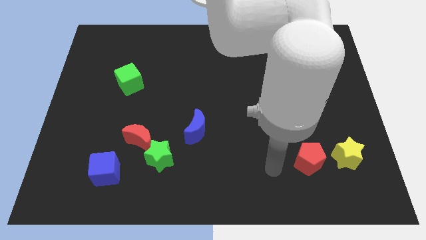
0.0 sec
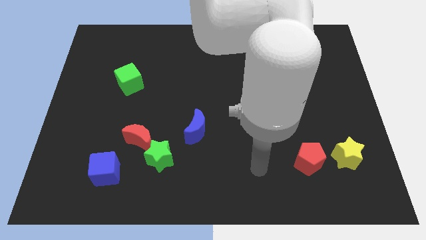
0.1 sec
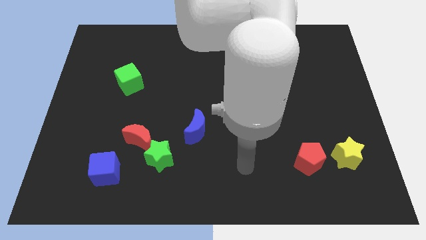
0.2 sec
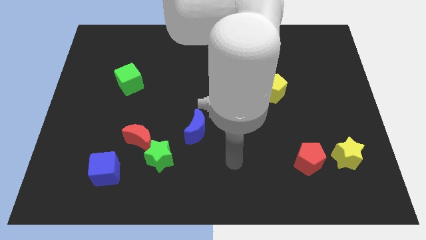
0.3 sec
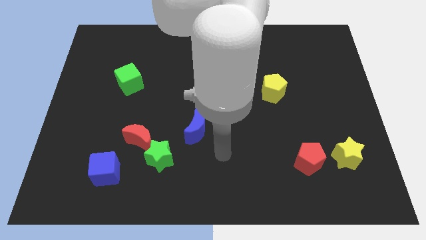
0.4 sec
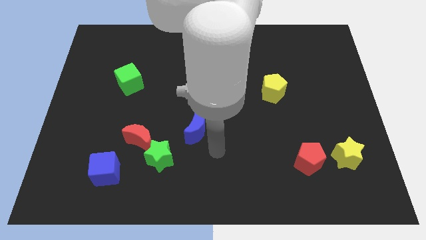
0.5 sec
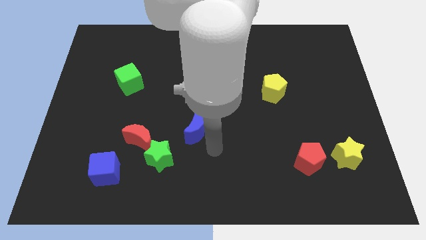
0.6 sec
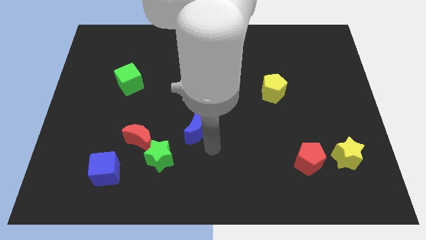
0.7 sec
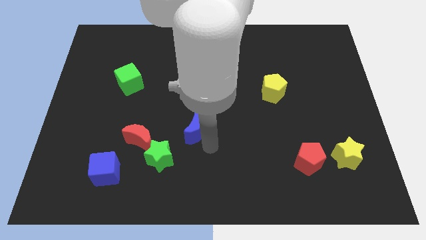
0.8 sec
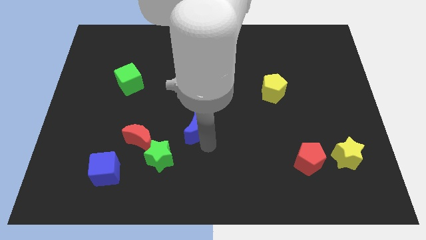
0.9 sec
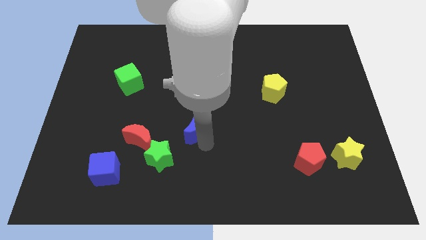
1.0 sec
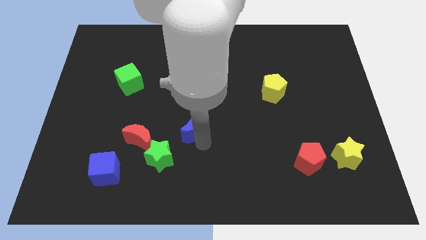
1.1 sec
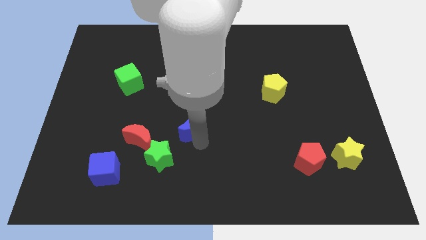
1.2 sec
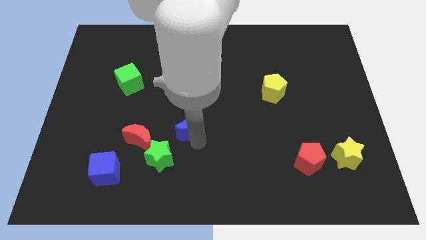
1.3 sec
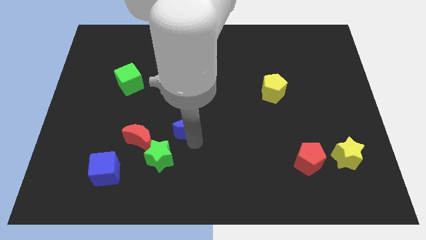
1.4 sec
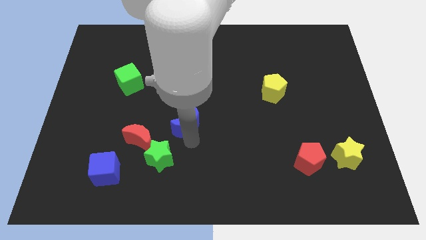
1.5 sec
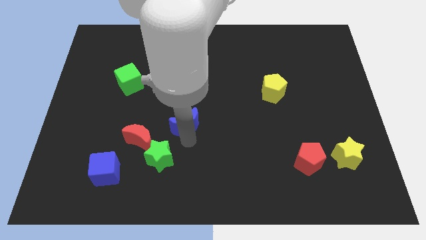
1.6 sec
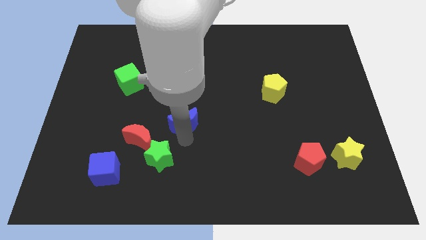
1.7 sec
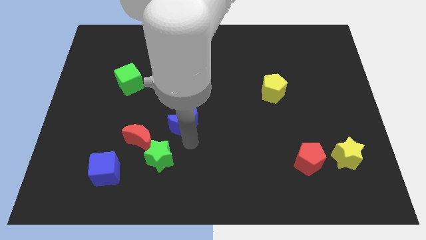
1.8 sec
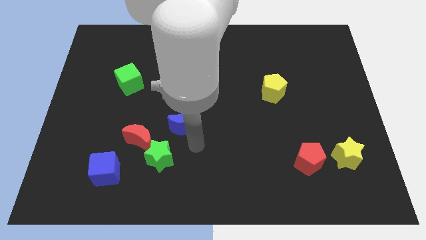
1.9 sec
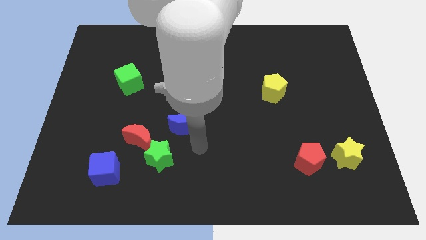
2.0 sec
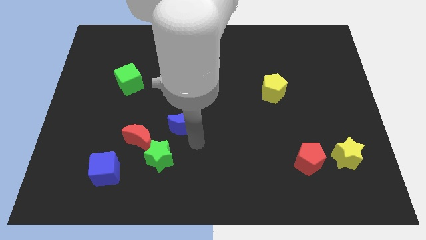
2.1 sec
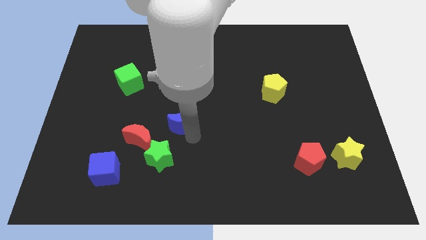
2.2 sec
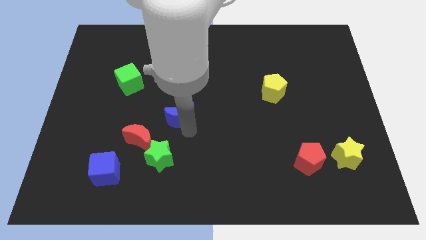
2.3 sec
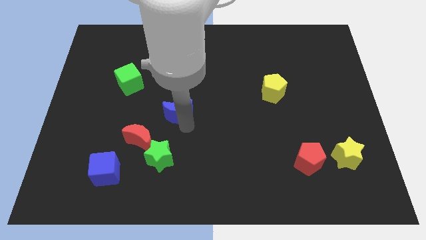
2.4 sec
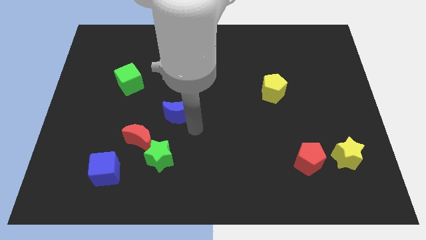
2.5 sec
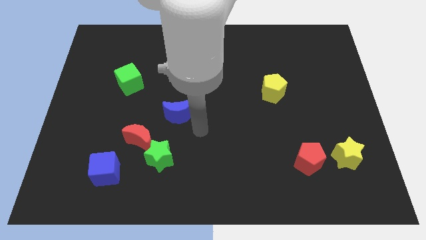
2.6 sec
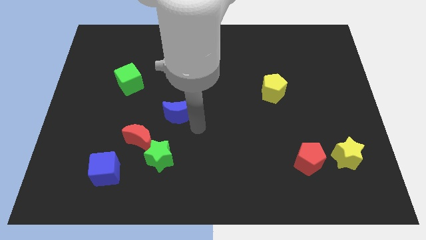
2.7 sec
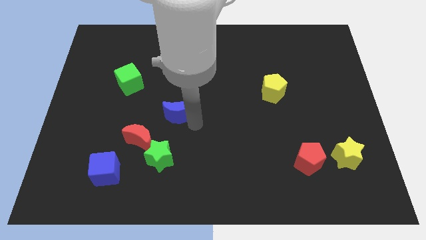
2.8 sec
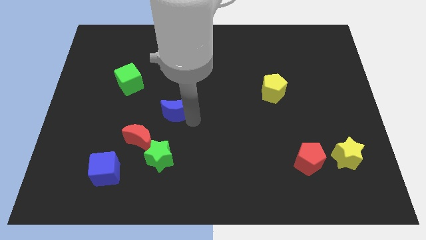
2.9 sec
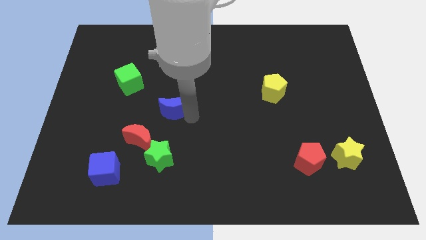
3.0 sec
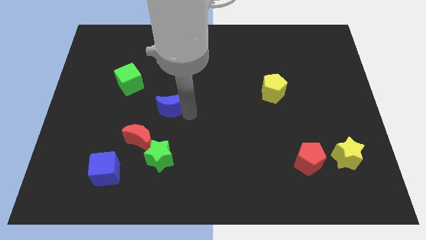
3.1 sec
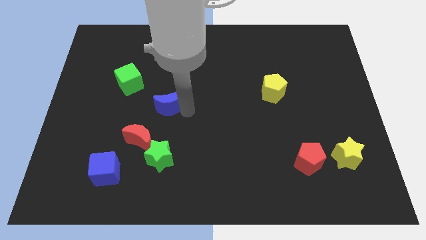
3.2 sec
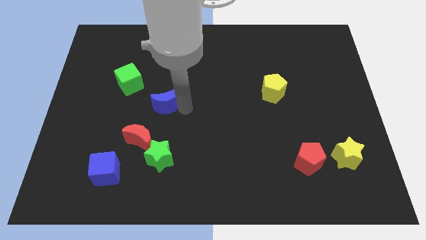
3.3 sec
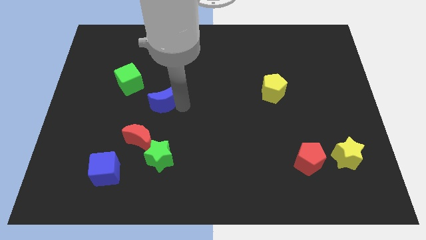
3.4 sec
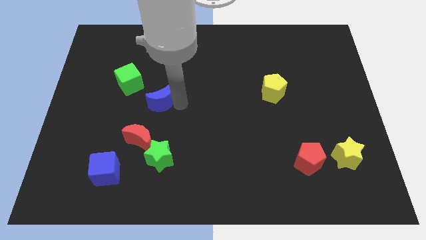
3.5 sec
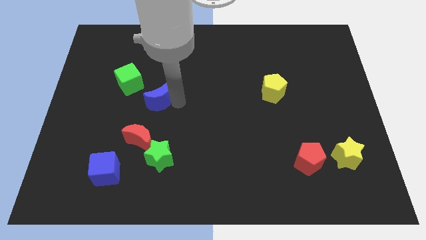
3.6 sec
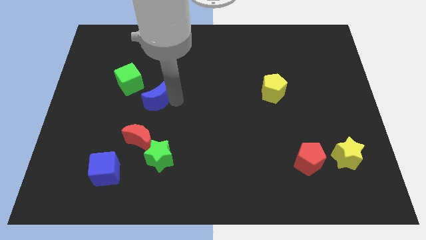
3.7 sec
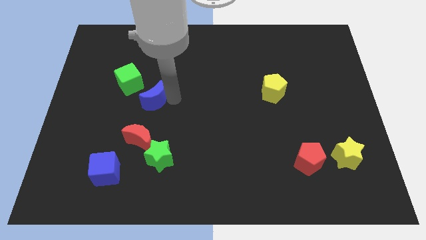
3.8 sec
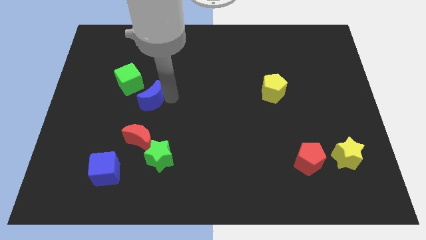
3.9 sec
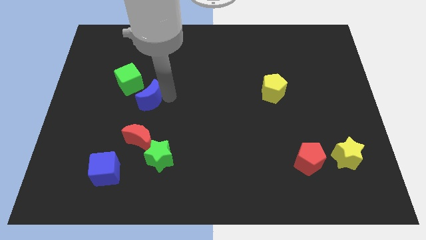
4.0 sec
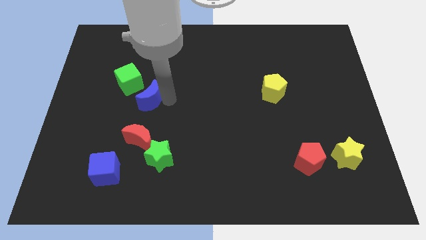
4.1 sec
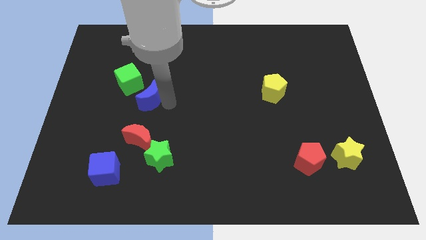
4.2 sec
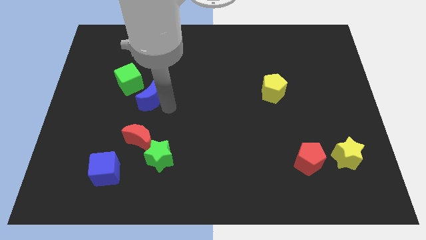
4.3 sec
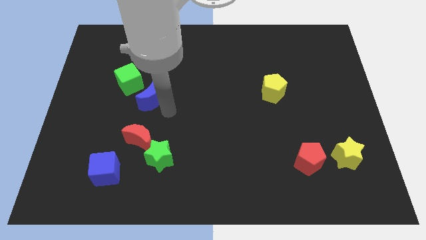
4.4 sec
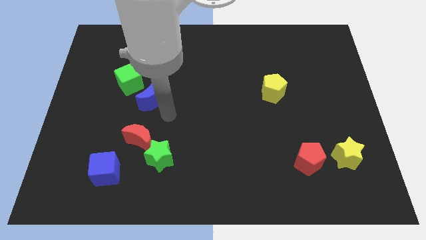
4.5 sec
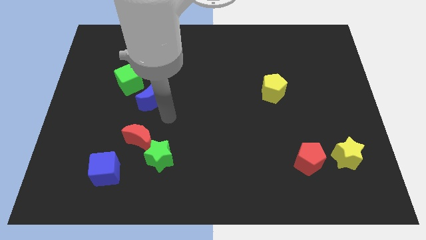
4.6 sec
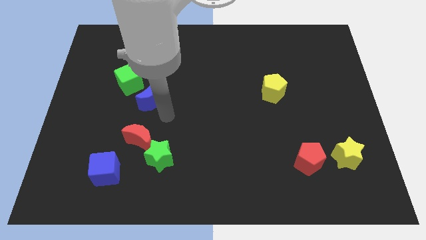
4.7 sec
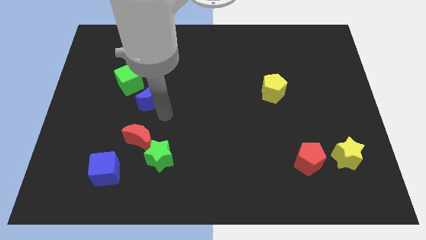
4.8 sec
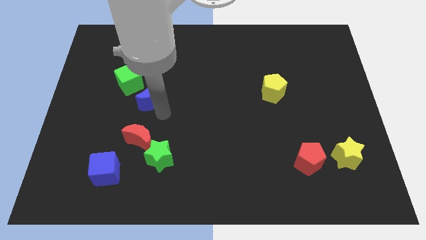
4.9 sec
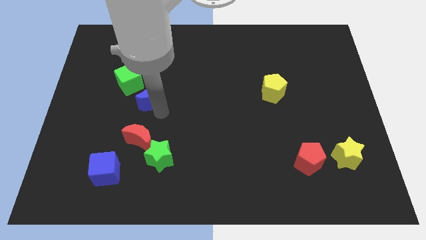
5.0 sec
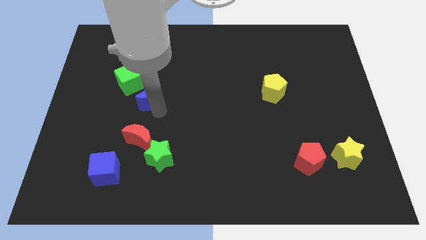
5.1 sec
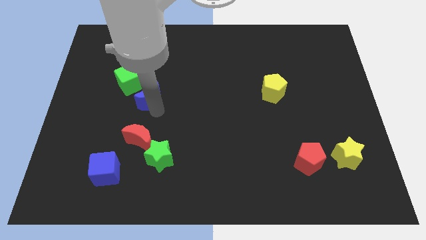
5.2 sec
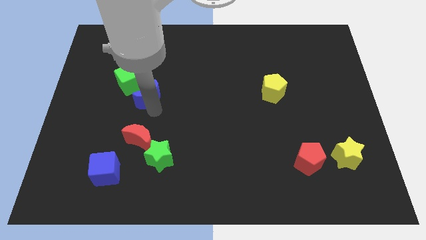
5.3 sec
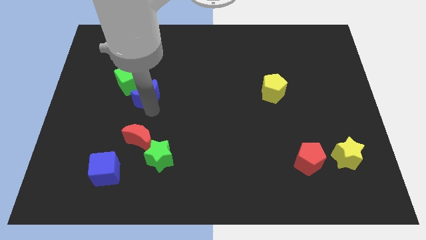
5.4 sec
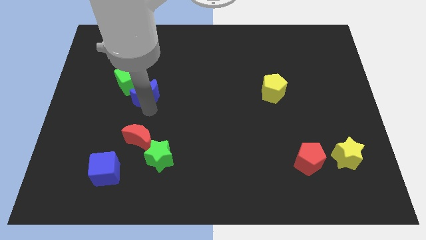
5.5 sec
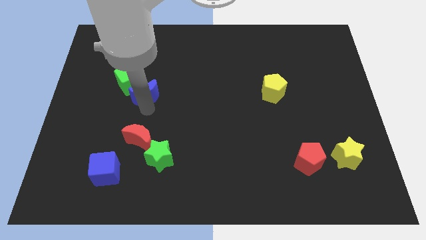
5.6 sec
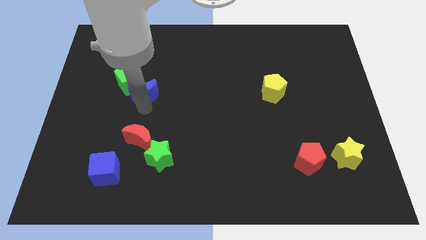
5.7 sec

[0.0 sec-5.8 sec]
push the blue moon to the green cube

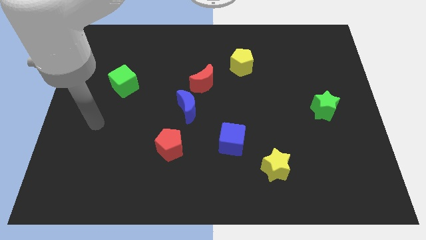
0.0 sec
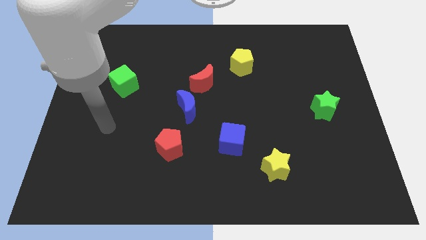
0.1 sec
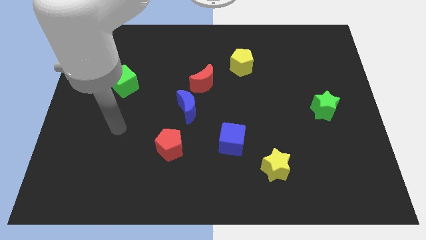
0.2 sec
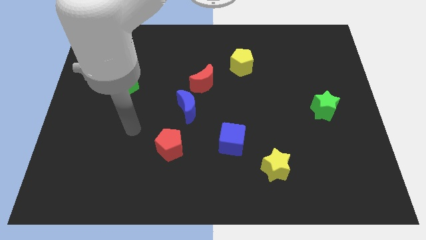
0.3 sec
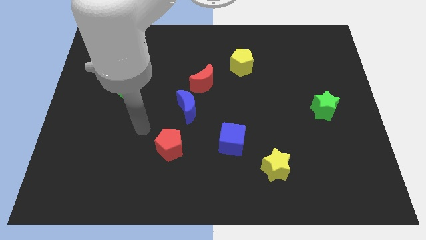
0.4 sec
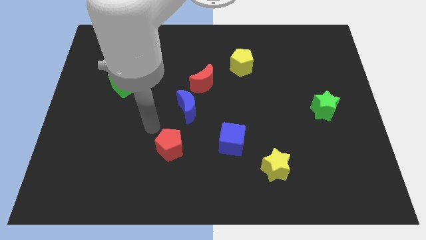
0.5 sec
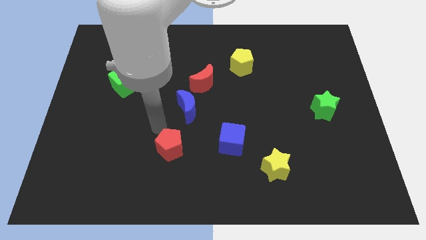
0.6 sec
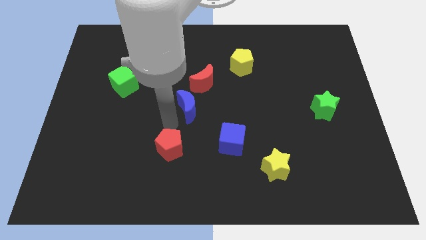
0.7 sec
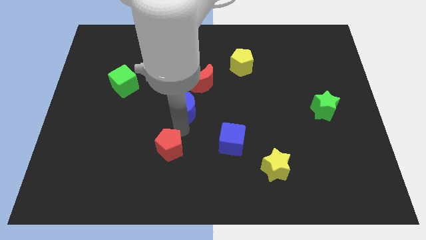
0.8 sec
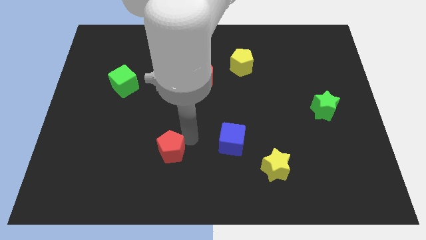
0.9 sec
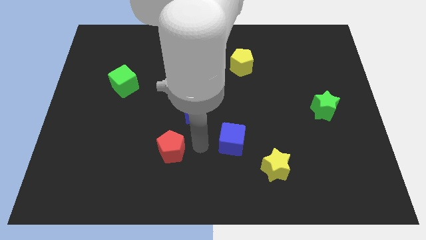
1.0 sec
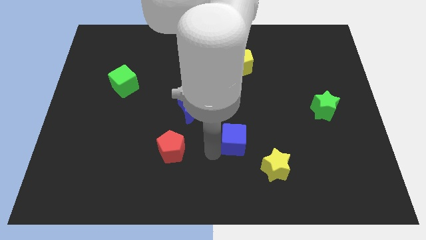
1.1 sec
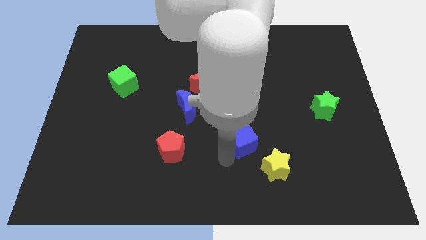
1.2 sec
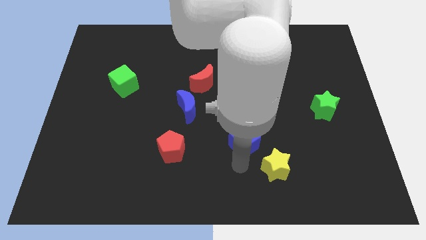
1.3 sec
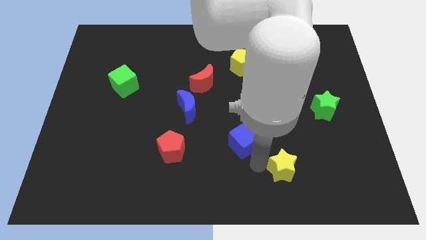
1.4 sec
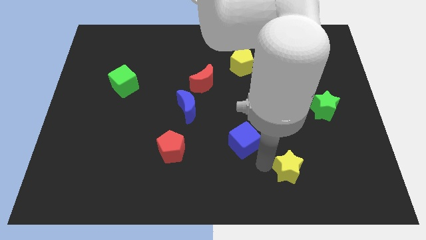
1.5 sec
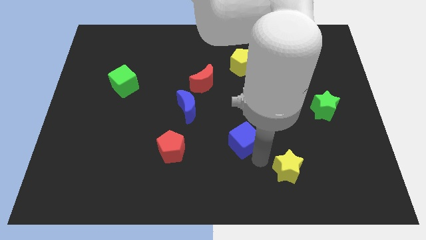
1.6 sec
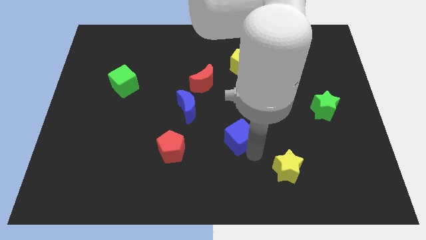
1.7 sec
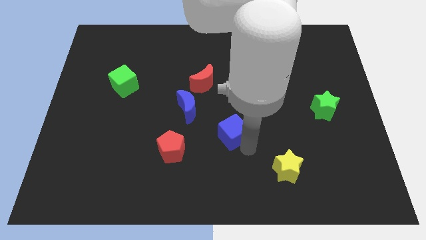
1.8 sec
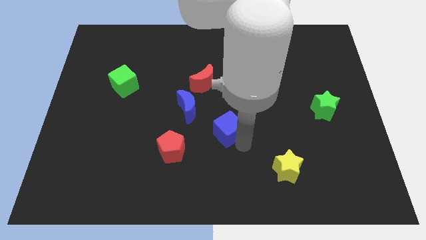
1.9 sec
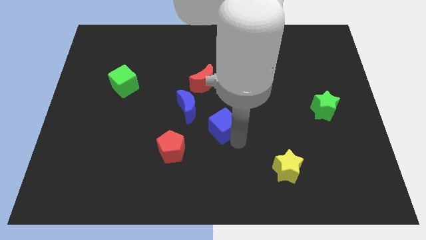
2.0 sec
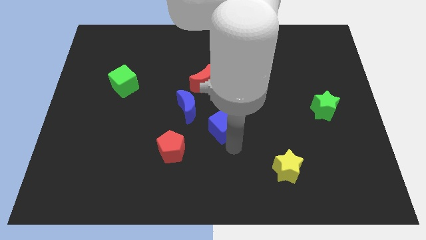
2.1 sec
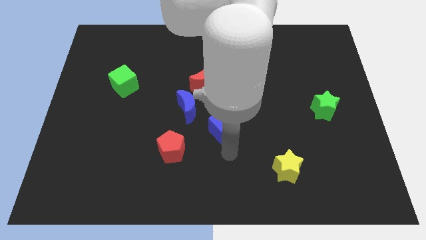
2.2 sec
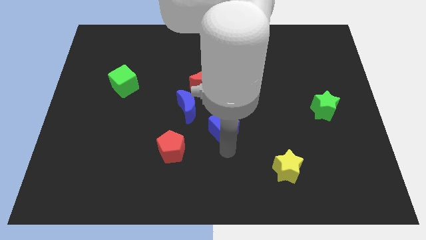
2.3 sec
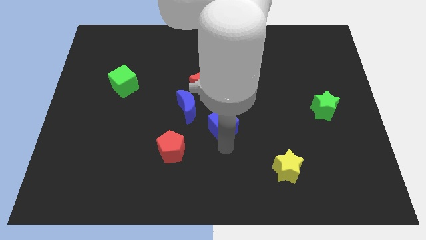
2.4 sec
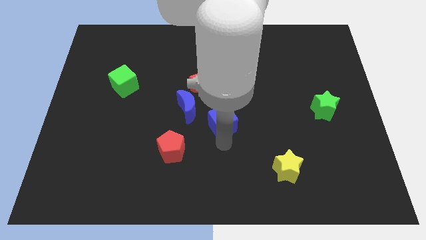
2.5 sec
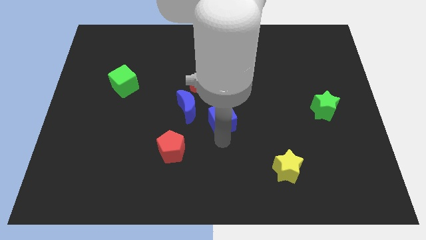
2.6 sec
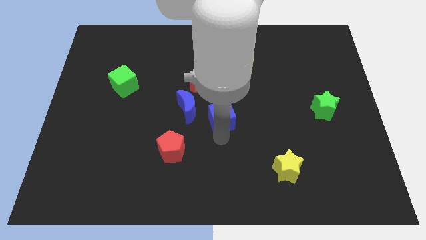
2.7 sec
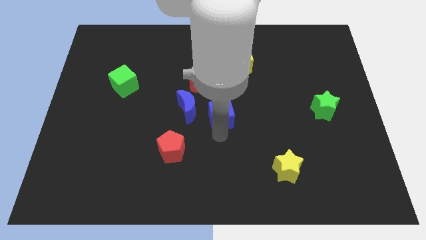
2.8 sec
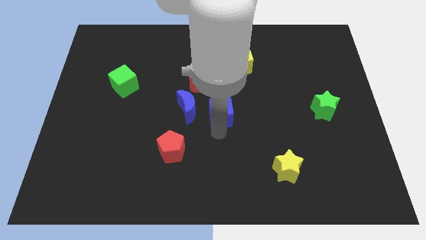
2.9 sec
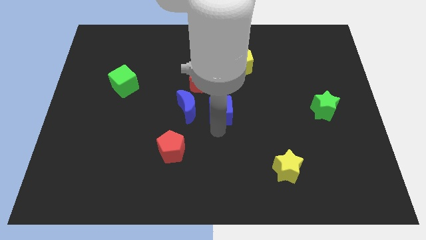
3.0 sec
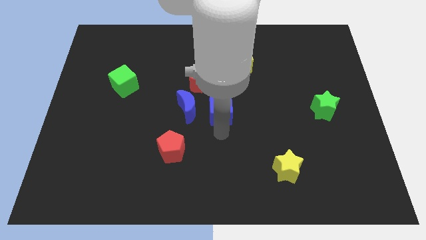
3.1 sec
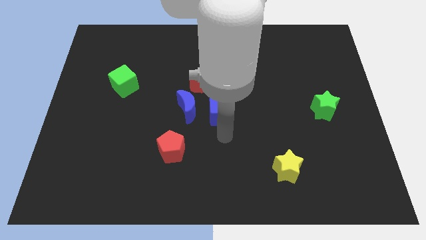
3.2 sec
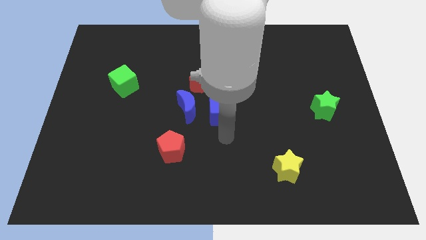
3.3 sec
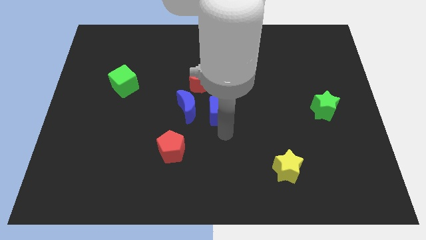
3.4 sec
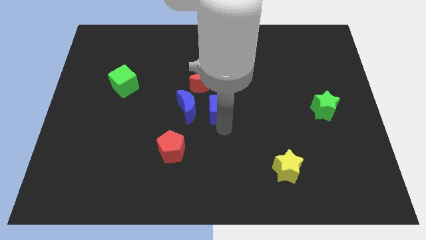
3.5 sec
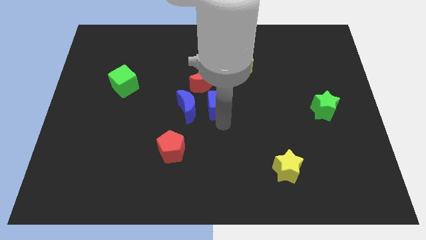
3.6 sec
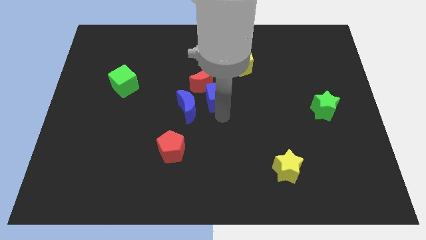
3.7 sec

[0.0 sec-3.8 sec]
push the blue cube next to the red moon
